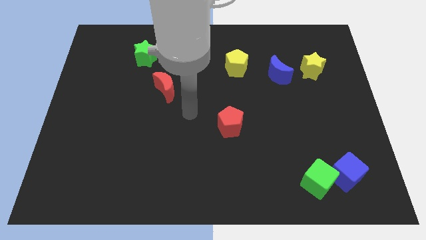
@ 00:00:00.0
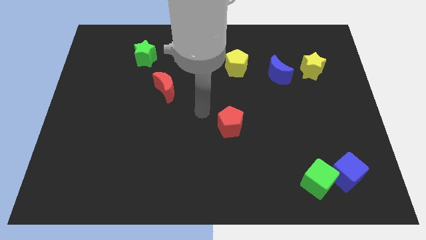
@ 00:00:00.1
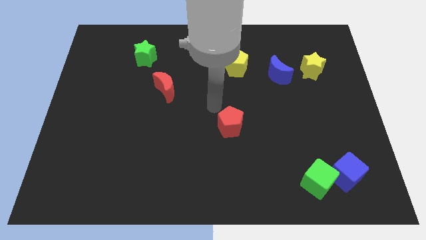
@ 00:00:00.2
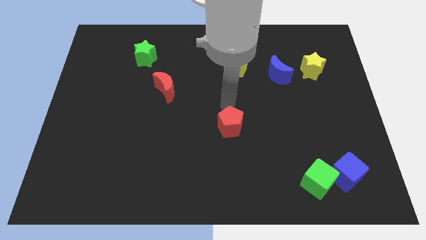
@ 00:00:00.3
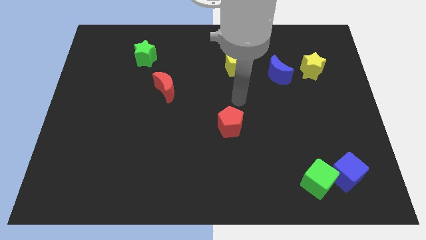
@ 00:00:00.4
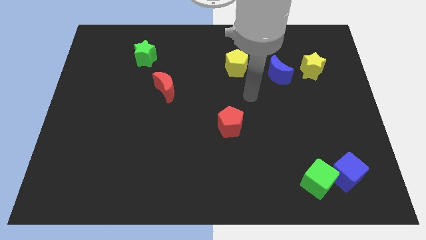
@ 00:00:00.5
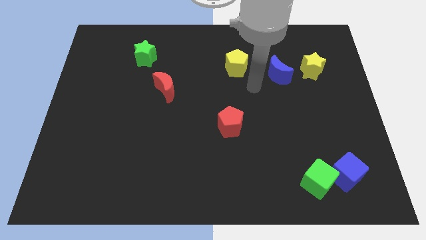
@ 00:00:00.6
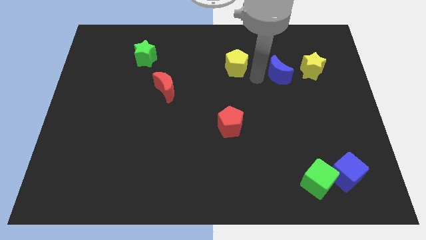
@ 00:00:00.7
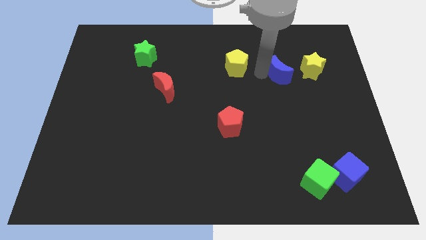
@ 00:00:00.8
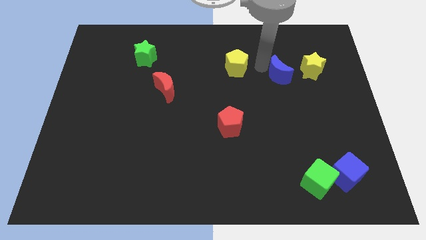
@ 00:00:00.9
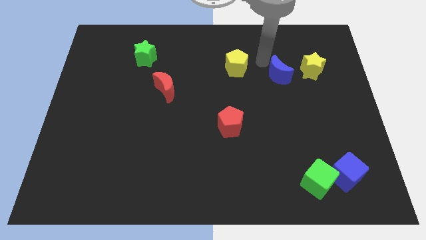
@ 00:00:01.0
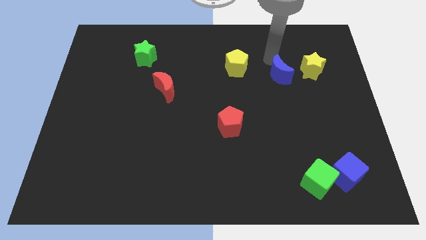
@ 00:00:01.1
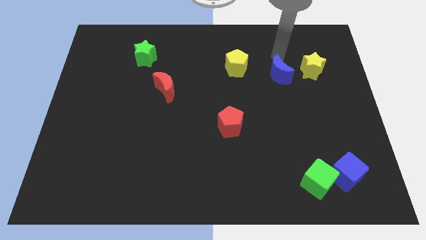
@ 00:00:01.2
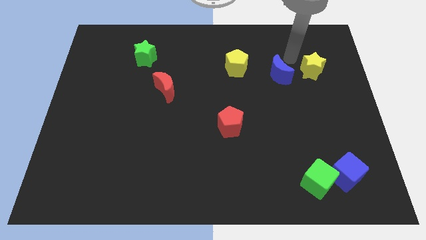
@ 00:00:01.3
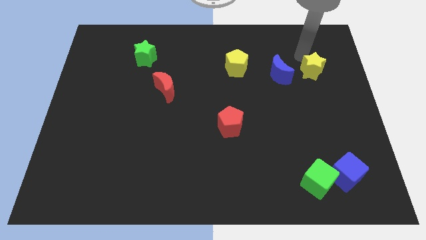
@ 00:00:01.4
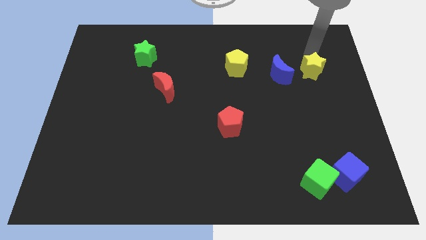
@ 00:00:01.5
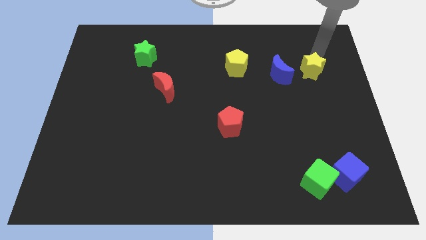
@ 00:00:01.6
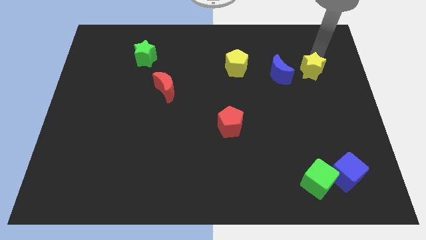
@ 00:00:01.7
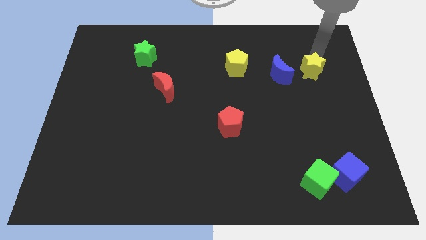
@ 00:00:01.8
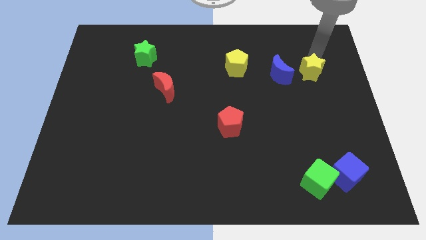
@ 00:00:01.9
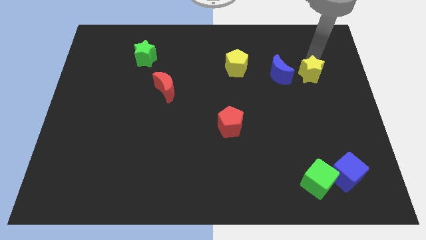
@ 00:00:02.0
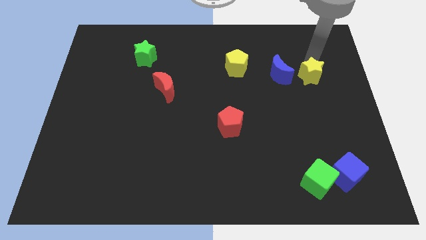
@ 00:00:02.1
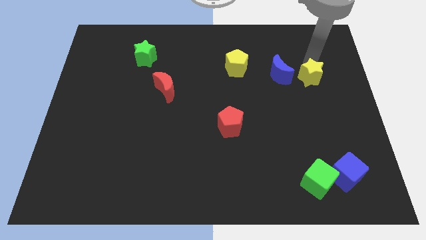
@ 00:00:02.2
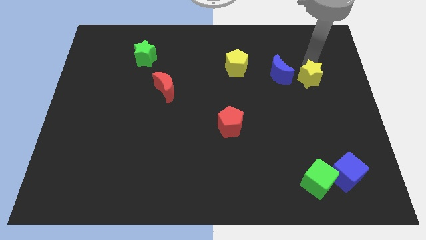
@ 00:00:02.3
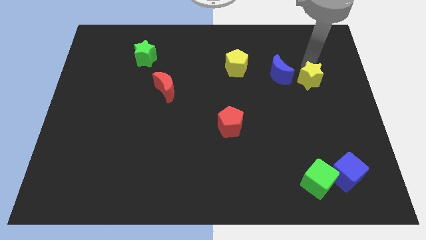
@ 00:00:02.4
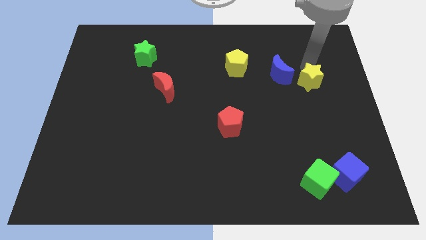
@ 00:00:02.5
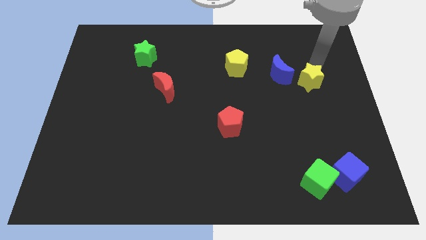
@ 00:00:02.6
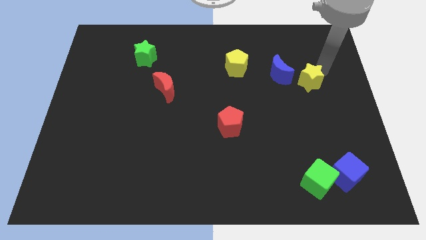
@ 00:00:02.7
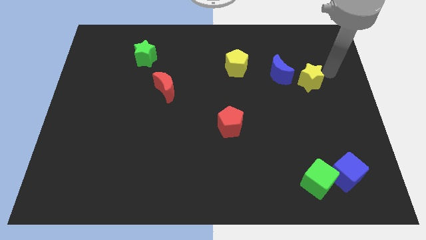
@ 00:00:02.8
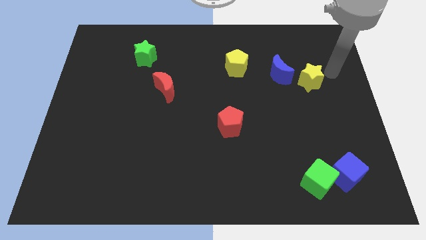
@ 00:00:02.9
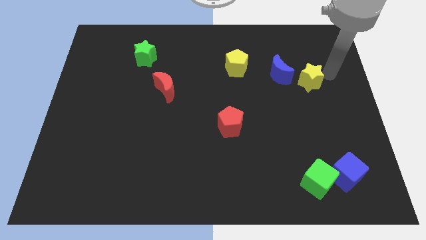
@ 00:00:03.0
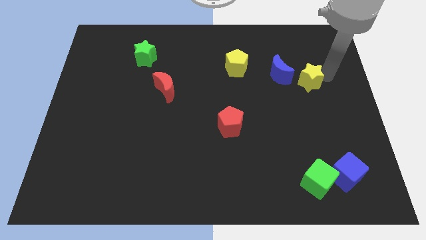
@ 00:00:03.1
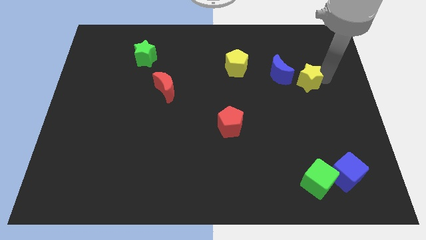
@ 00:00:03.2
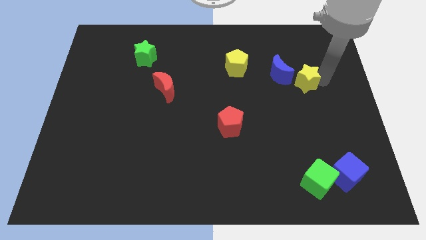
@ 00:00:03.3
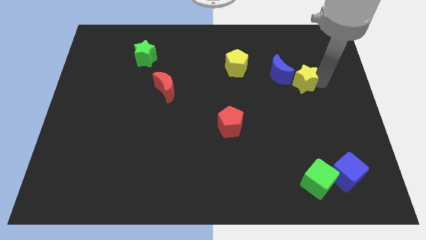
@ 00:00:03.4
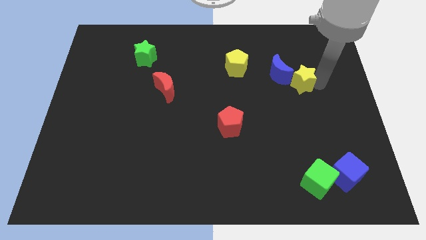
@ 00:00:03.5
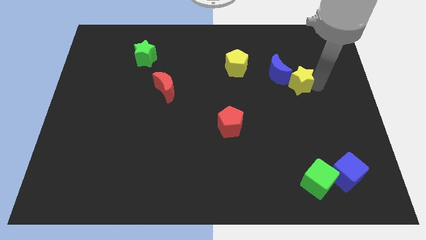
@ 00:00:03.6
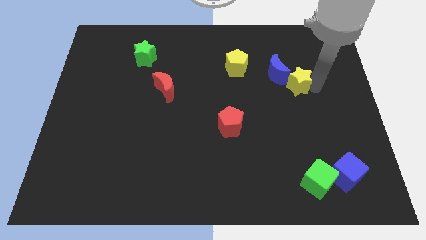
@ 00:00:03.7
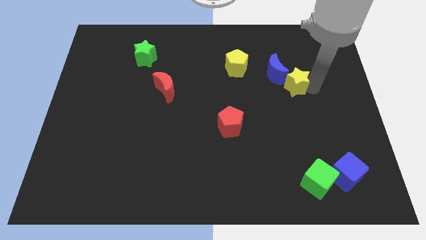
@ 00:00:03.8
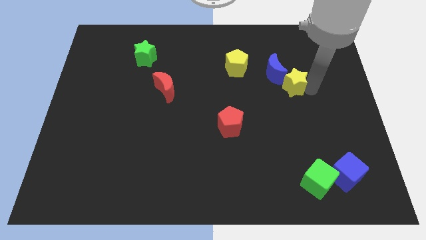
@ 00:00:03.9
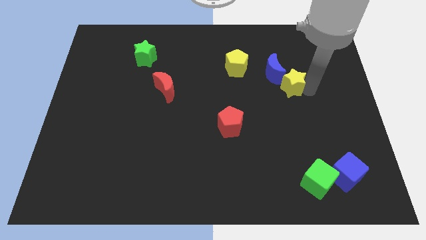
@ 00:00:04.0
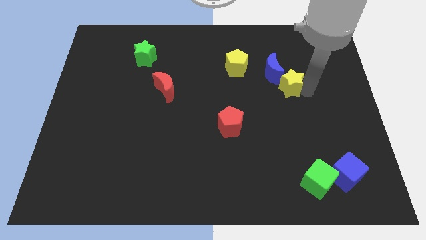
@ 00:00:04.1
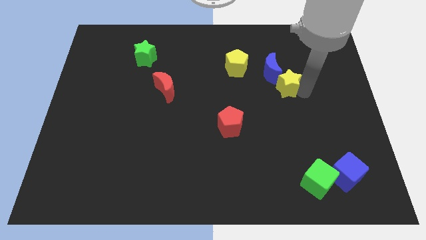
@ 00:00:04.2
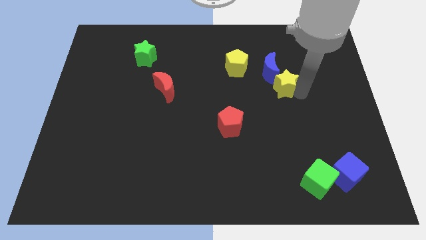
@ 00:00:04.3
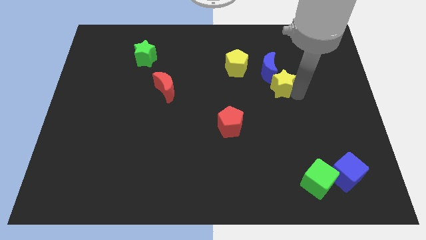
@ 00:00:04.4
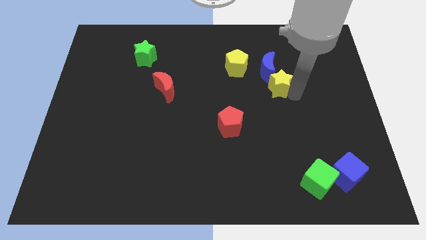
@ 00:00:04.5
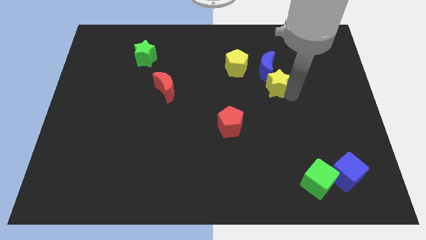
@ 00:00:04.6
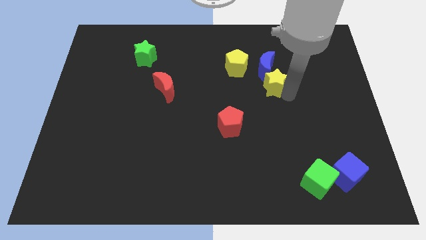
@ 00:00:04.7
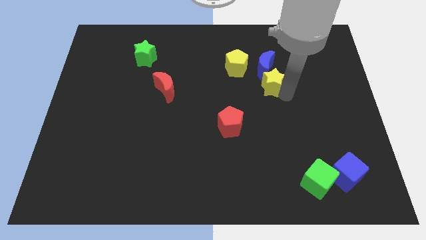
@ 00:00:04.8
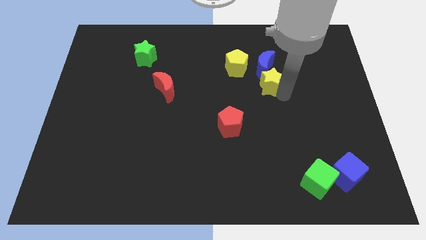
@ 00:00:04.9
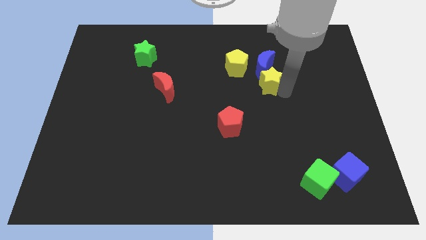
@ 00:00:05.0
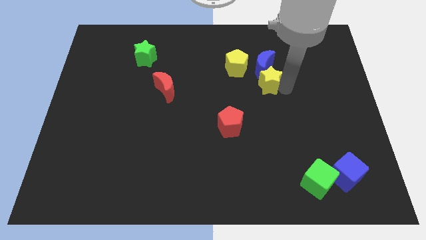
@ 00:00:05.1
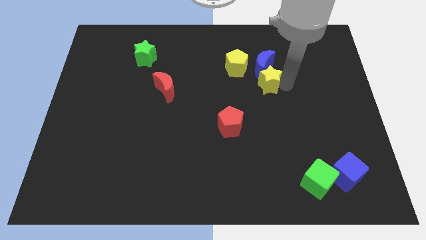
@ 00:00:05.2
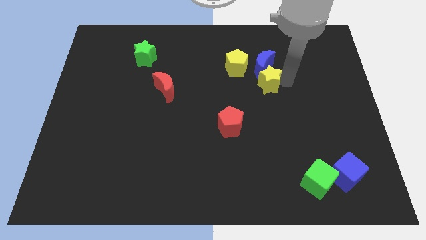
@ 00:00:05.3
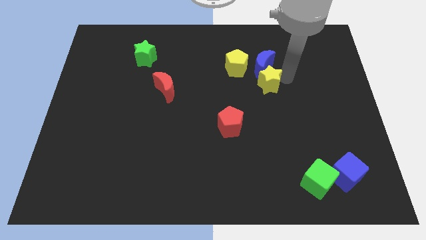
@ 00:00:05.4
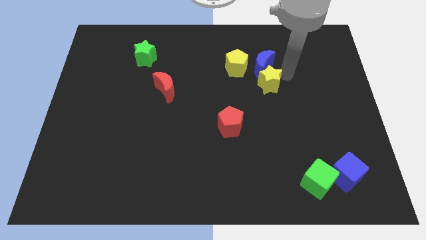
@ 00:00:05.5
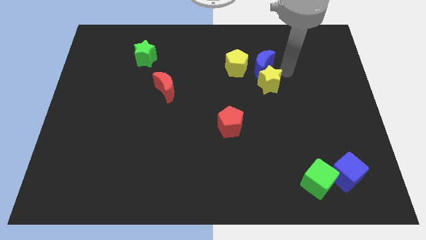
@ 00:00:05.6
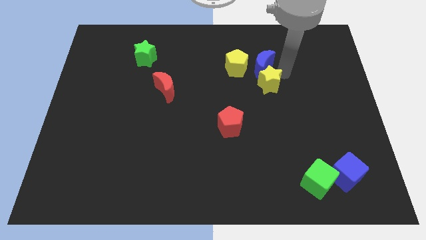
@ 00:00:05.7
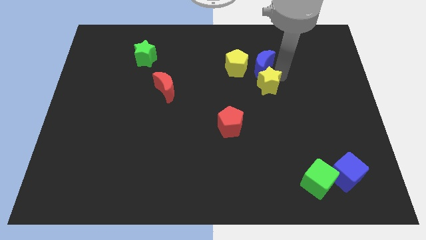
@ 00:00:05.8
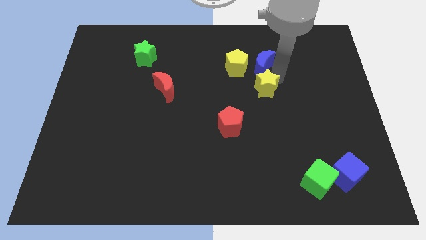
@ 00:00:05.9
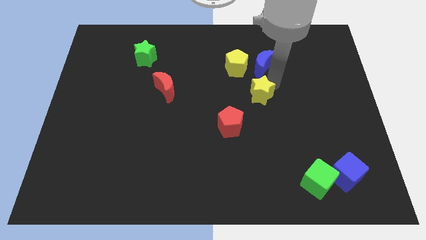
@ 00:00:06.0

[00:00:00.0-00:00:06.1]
push the yellow star to the center of the board

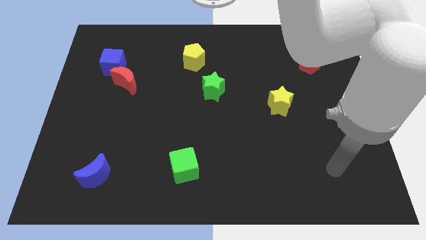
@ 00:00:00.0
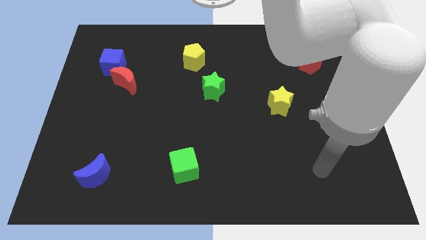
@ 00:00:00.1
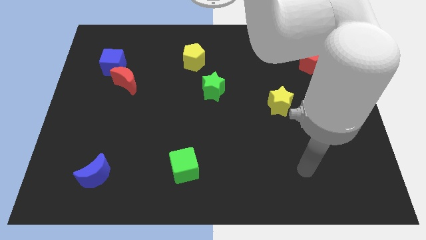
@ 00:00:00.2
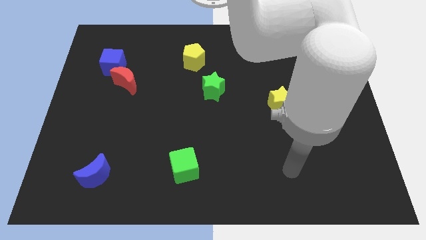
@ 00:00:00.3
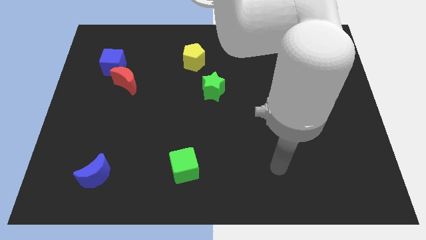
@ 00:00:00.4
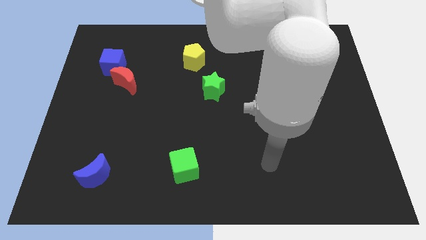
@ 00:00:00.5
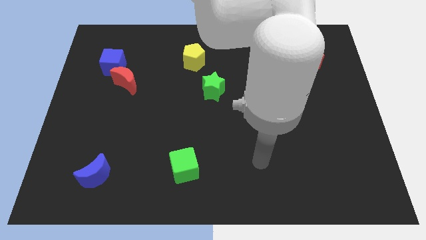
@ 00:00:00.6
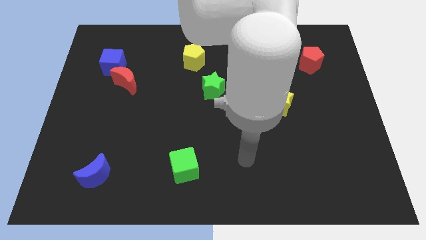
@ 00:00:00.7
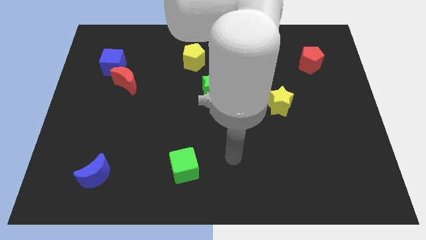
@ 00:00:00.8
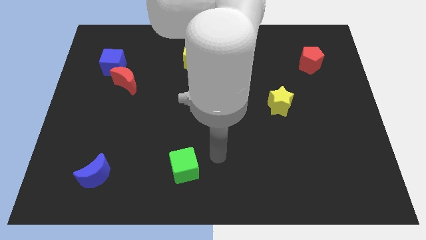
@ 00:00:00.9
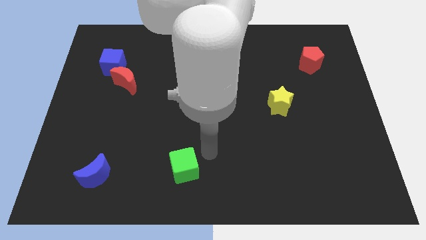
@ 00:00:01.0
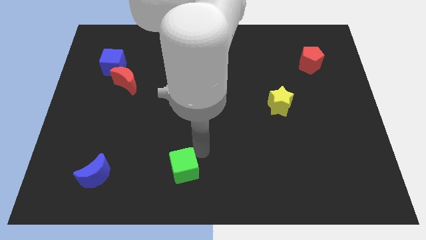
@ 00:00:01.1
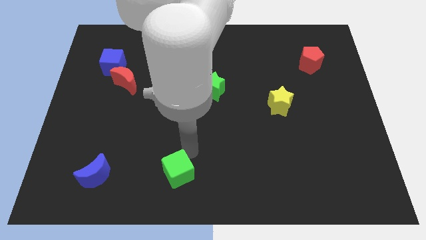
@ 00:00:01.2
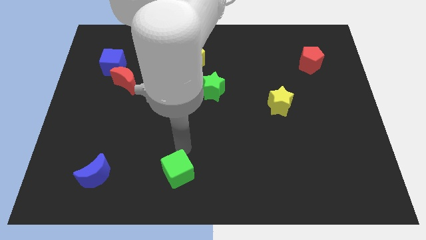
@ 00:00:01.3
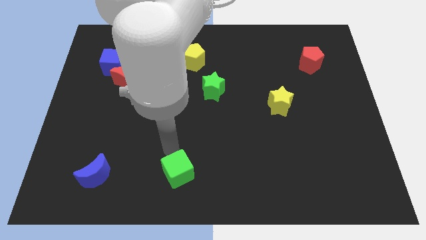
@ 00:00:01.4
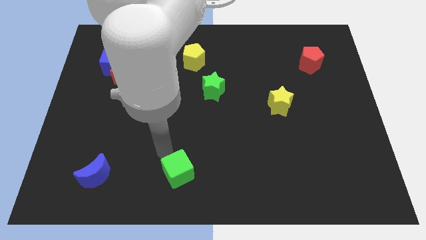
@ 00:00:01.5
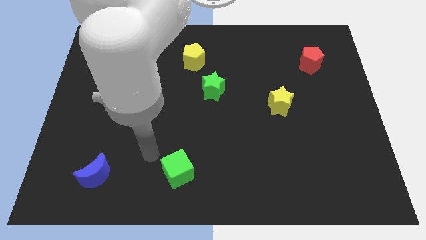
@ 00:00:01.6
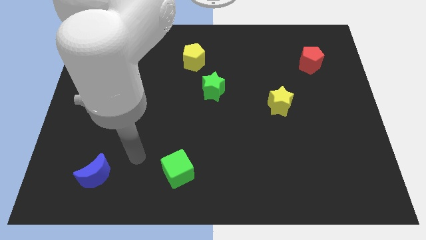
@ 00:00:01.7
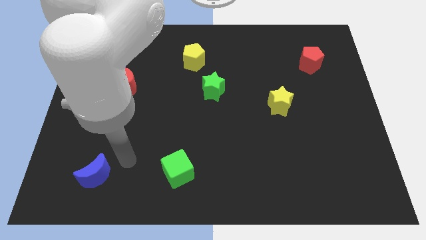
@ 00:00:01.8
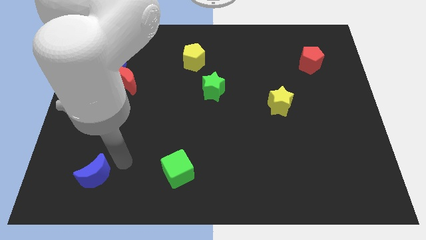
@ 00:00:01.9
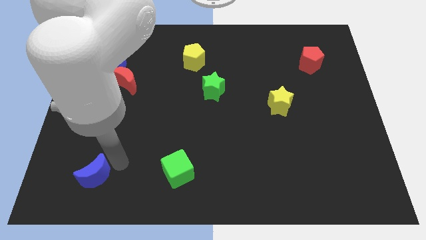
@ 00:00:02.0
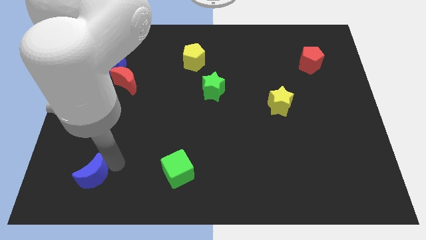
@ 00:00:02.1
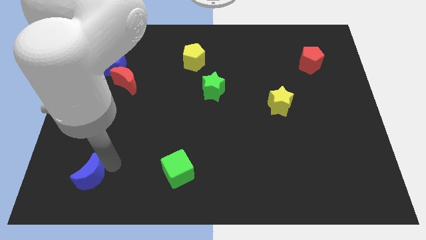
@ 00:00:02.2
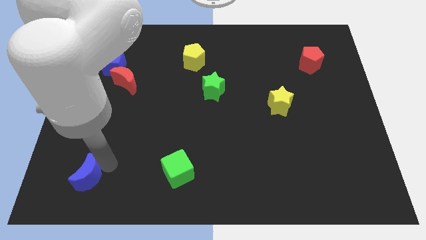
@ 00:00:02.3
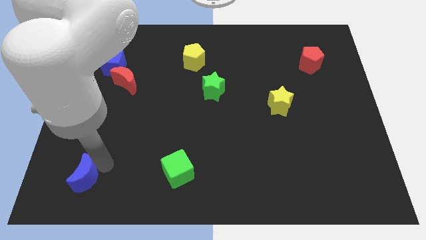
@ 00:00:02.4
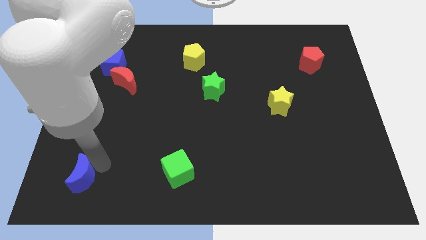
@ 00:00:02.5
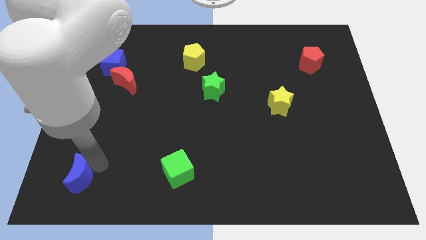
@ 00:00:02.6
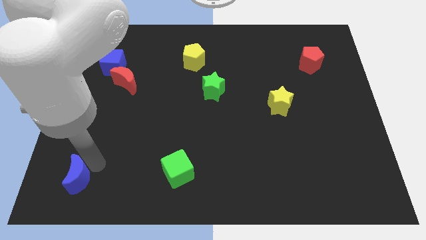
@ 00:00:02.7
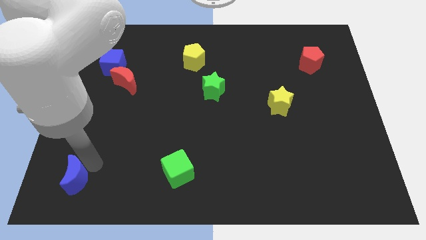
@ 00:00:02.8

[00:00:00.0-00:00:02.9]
put the blue moon to the bottom left
